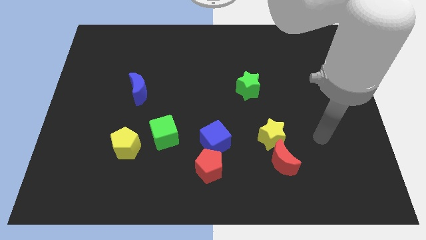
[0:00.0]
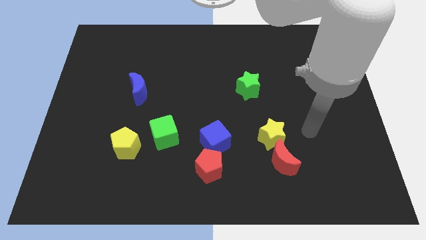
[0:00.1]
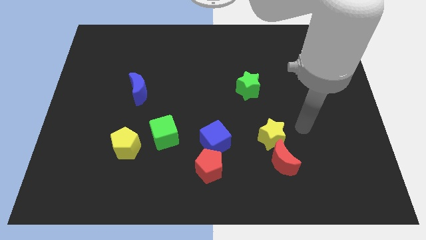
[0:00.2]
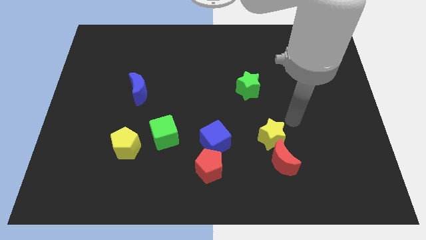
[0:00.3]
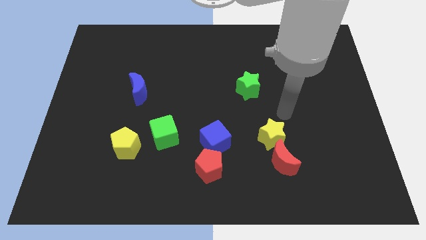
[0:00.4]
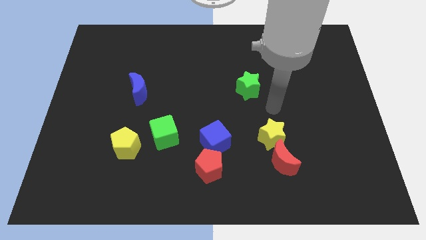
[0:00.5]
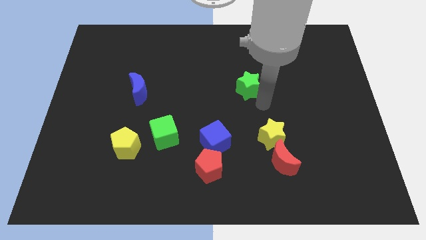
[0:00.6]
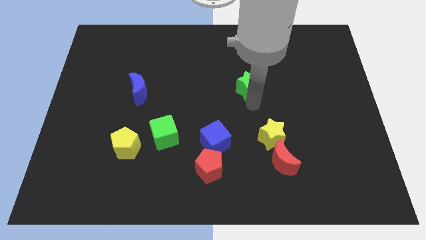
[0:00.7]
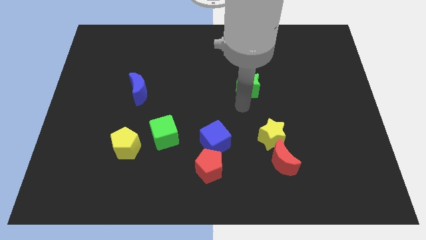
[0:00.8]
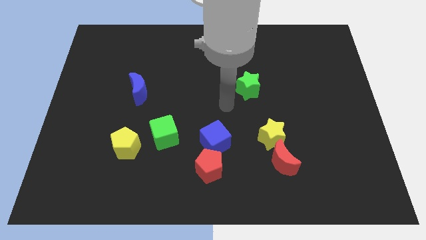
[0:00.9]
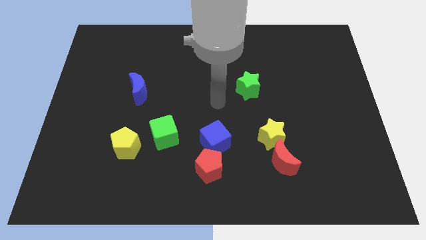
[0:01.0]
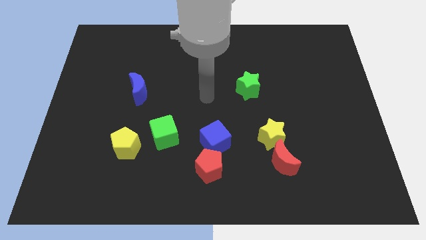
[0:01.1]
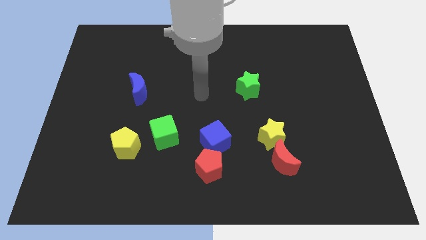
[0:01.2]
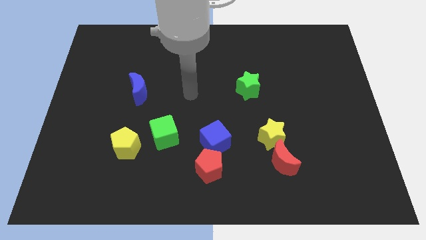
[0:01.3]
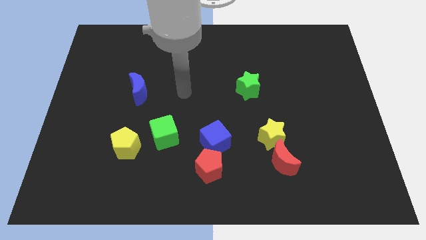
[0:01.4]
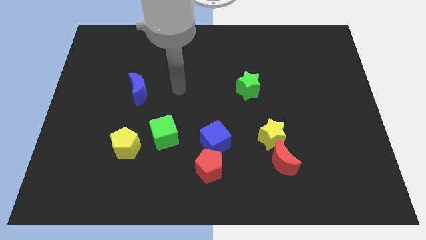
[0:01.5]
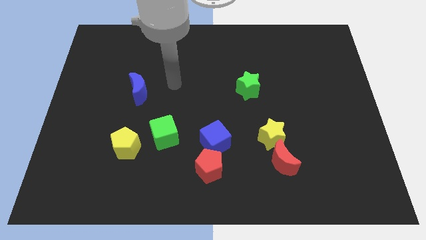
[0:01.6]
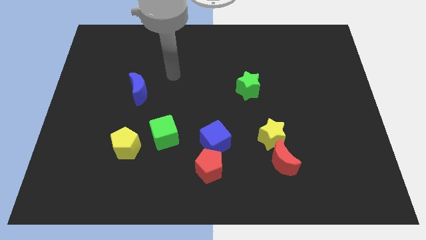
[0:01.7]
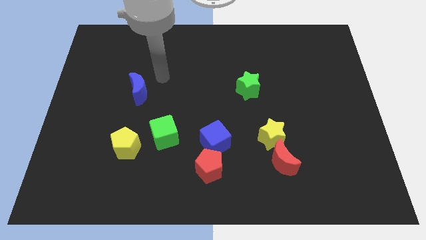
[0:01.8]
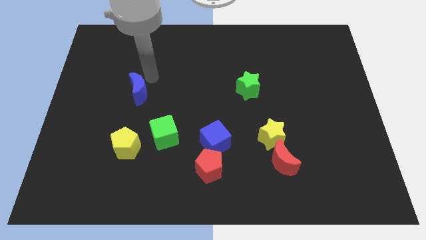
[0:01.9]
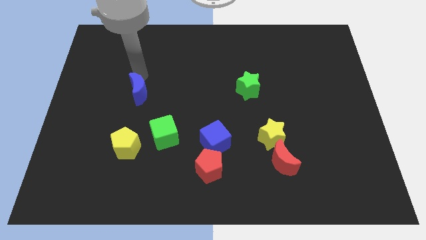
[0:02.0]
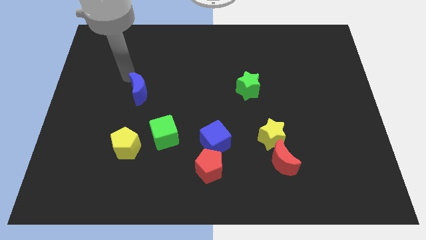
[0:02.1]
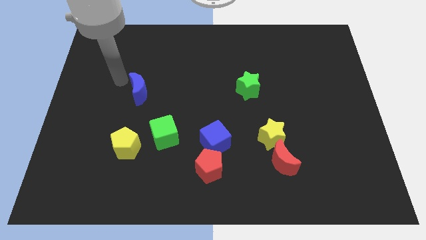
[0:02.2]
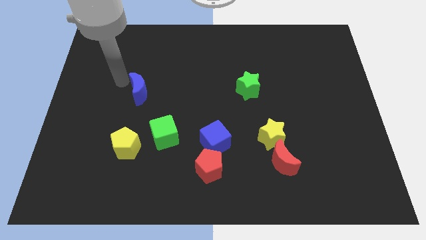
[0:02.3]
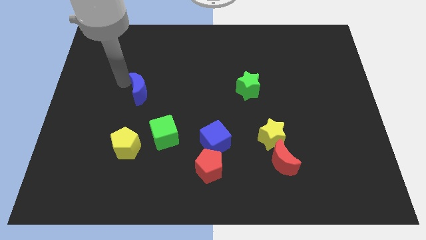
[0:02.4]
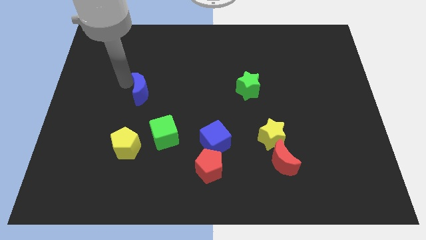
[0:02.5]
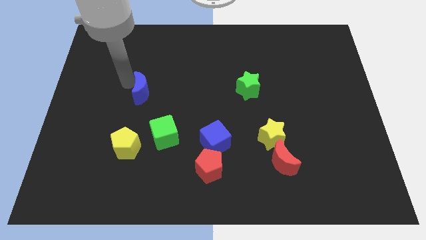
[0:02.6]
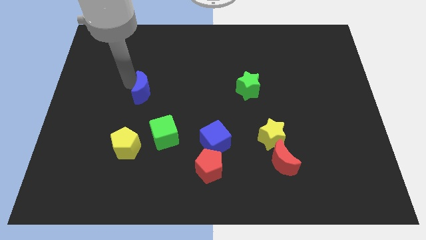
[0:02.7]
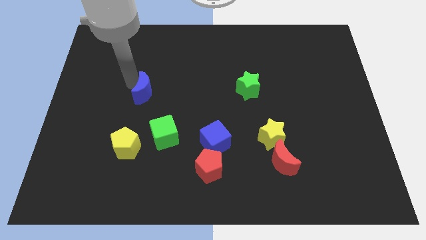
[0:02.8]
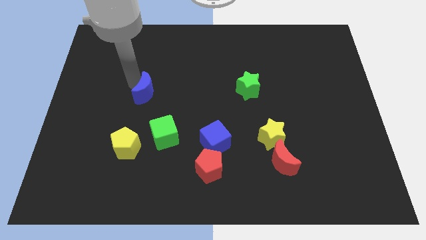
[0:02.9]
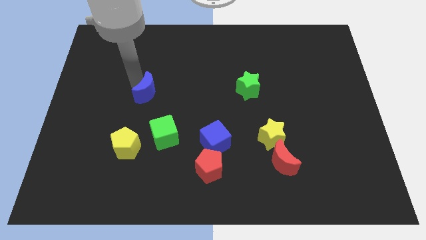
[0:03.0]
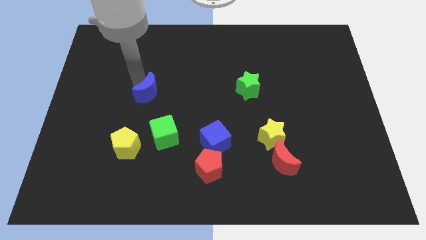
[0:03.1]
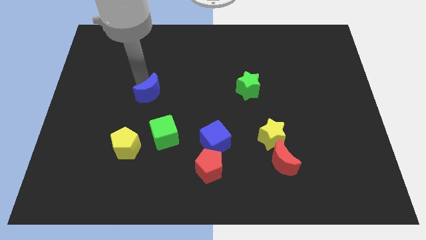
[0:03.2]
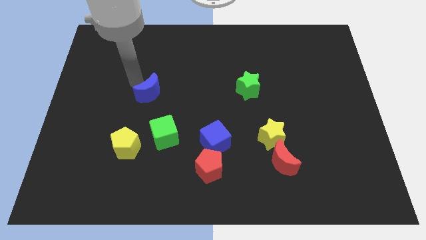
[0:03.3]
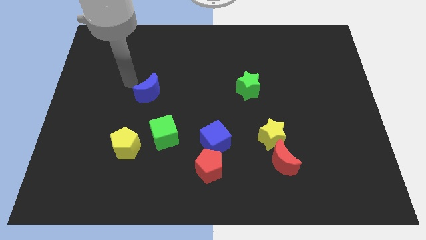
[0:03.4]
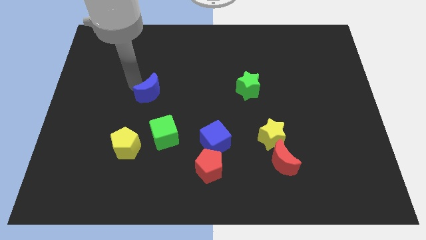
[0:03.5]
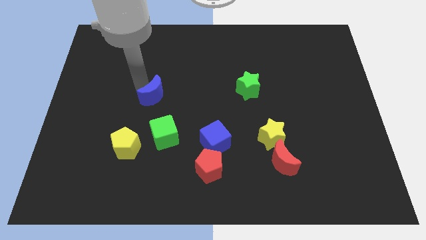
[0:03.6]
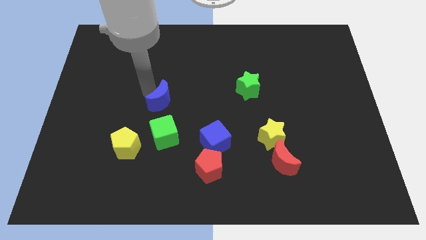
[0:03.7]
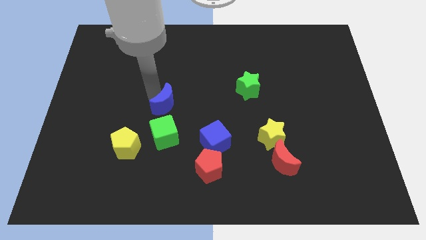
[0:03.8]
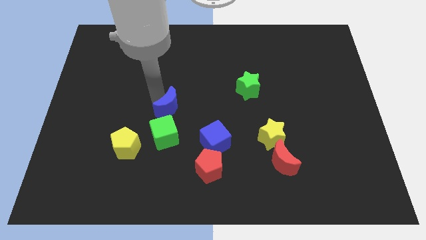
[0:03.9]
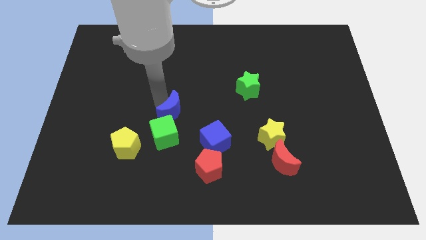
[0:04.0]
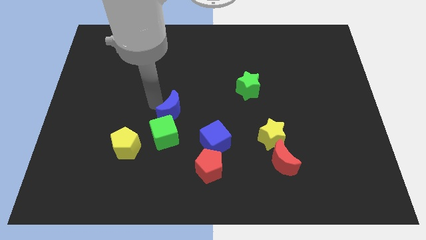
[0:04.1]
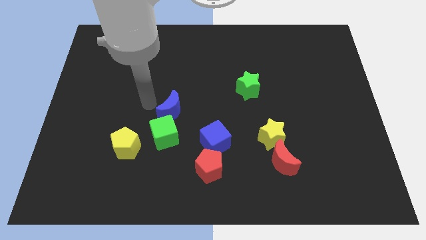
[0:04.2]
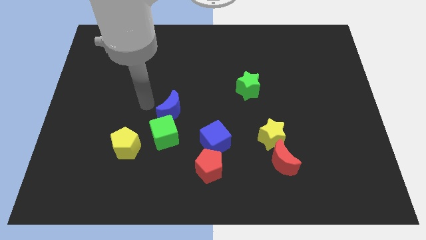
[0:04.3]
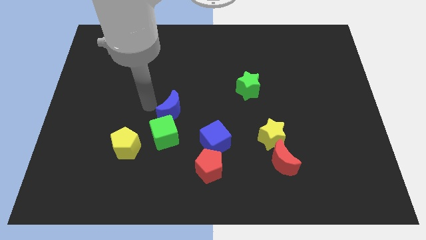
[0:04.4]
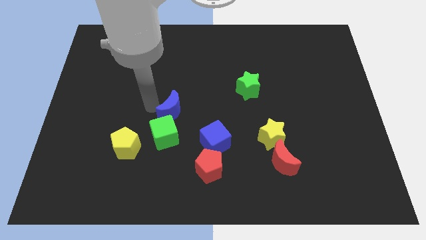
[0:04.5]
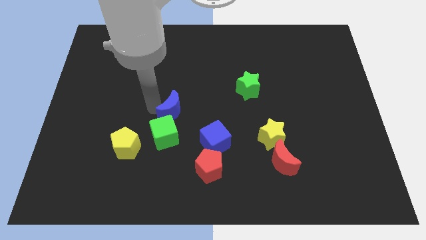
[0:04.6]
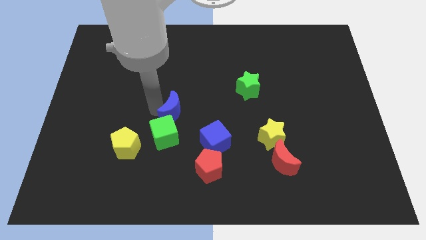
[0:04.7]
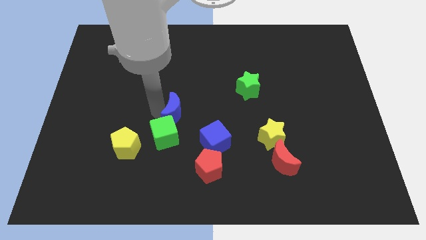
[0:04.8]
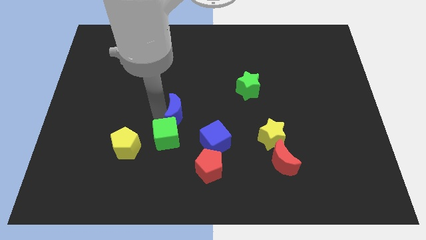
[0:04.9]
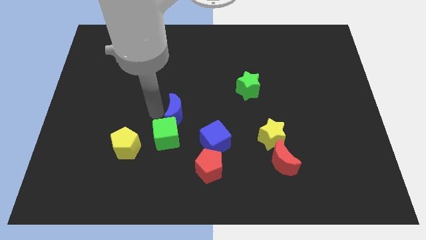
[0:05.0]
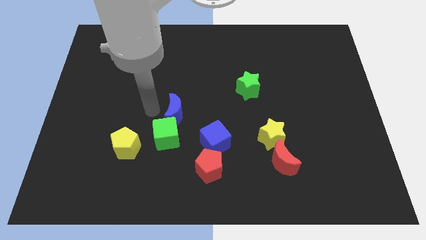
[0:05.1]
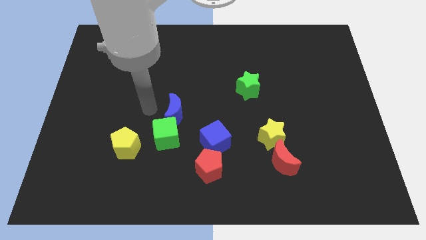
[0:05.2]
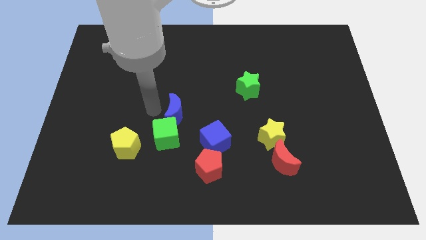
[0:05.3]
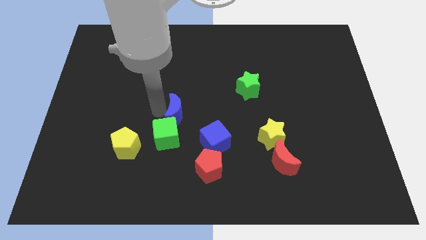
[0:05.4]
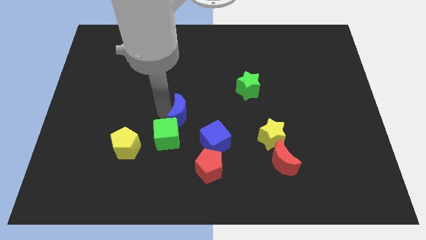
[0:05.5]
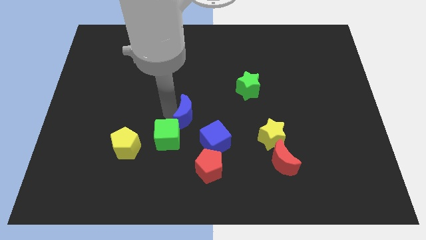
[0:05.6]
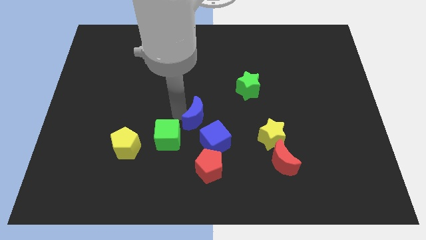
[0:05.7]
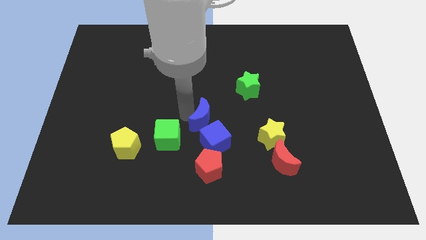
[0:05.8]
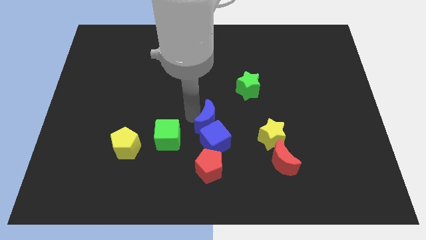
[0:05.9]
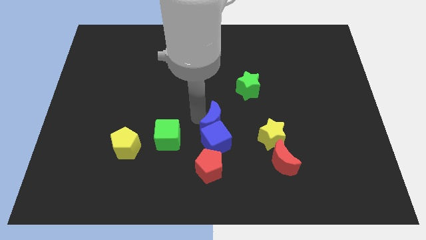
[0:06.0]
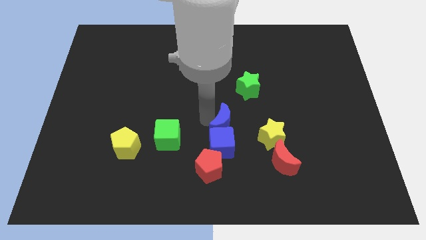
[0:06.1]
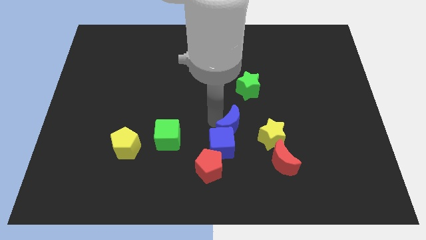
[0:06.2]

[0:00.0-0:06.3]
move the blue moon down and to the right

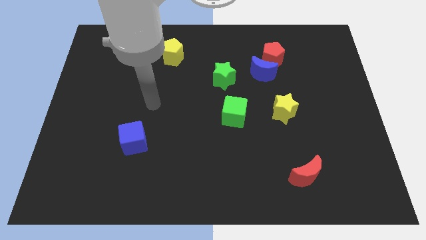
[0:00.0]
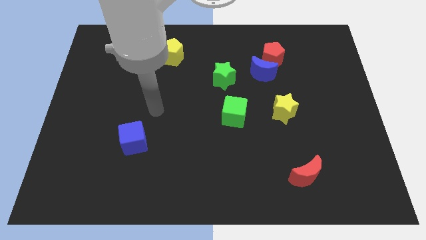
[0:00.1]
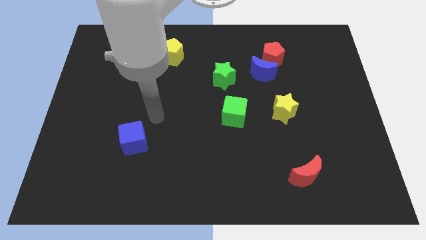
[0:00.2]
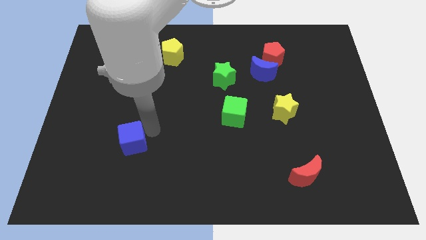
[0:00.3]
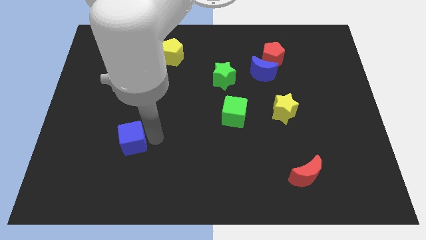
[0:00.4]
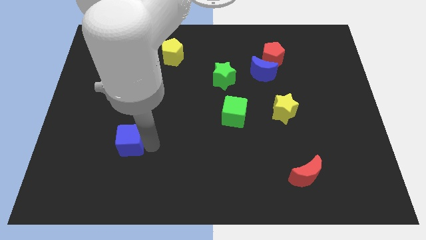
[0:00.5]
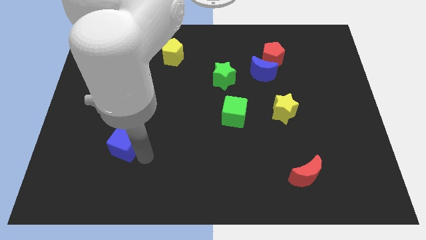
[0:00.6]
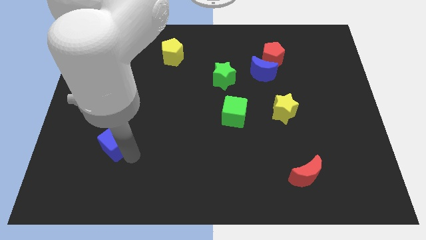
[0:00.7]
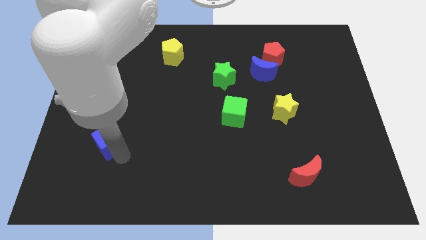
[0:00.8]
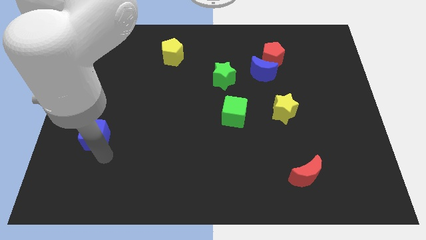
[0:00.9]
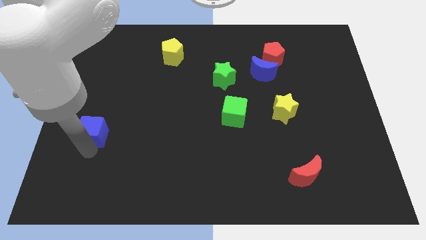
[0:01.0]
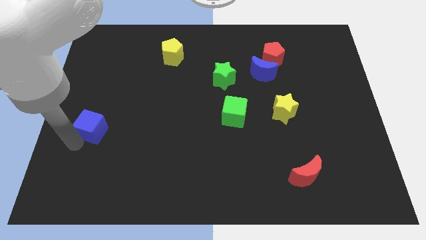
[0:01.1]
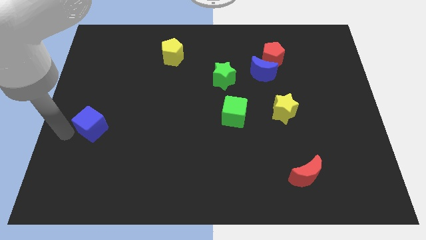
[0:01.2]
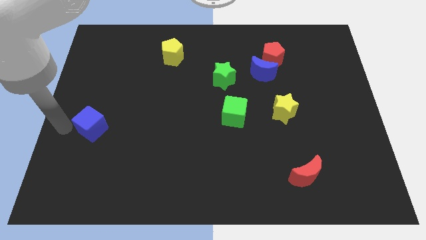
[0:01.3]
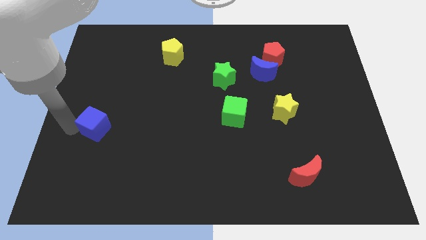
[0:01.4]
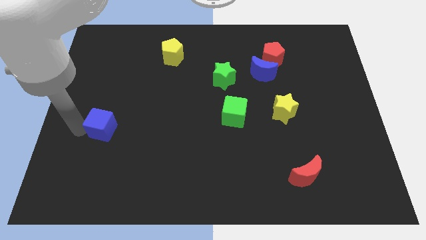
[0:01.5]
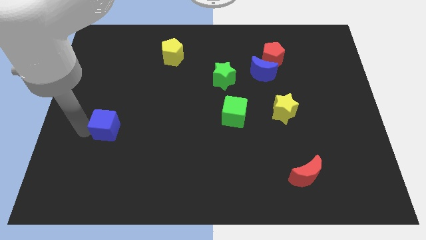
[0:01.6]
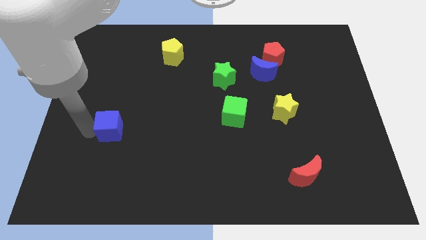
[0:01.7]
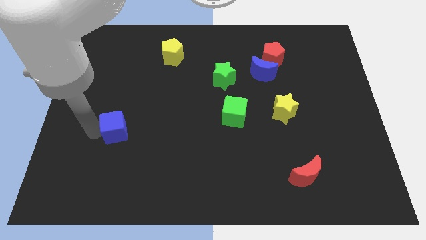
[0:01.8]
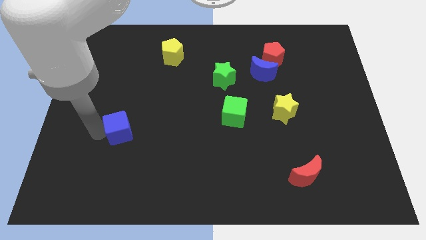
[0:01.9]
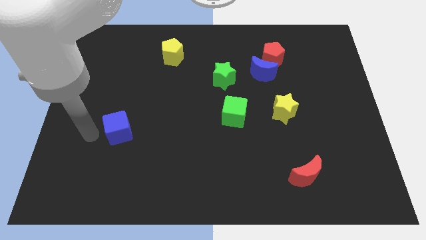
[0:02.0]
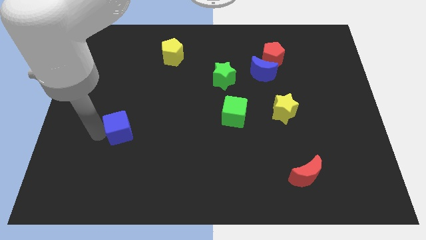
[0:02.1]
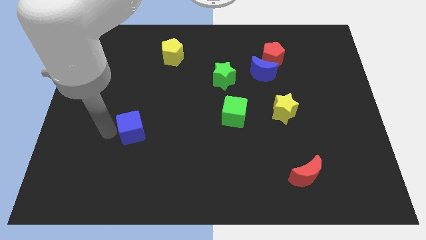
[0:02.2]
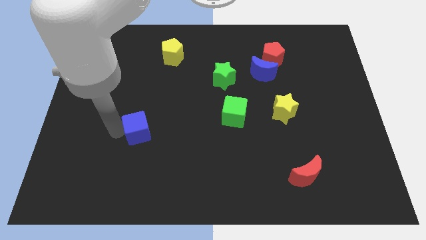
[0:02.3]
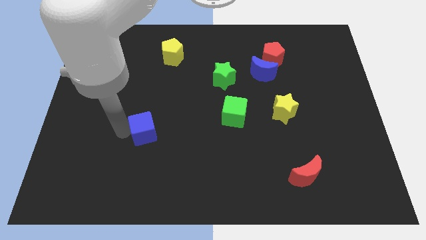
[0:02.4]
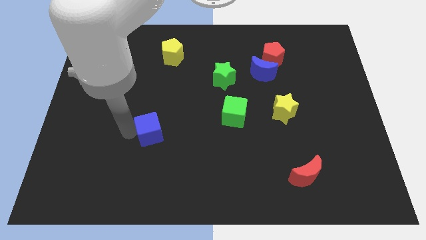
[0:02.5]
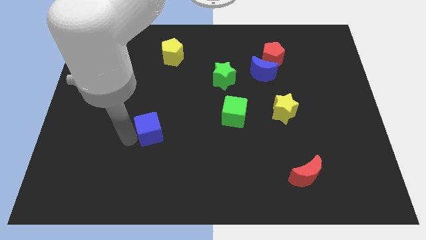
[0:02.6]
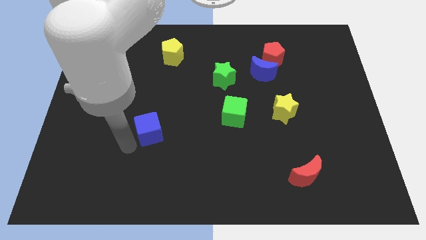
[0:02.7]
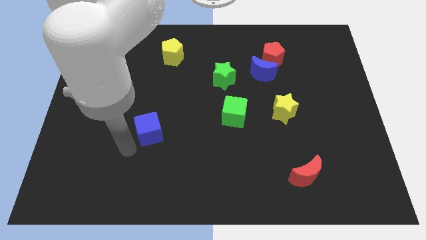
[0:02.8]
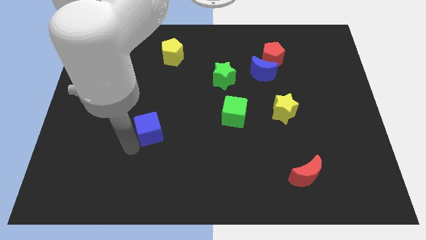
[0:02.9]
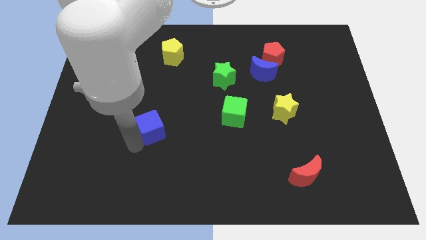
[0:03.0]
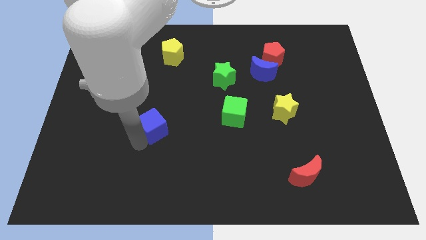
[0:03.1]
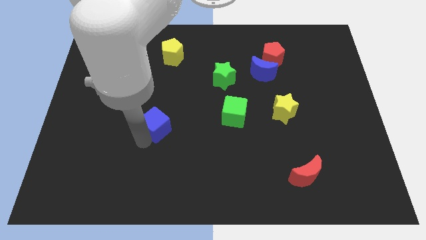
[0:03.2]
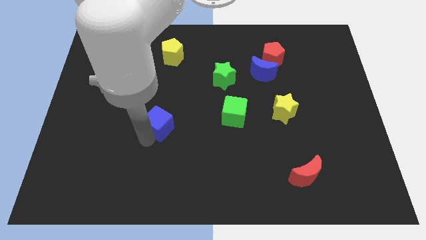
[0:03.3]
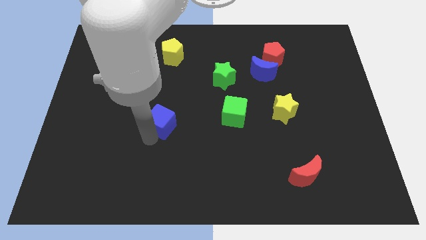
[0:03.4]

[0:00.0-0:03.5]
move the blue cube a little up and then right
